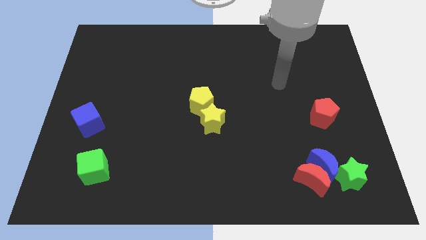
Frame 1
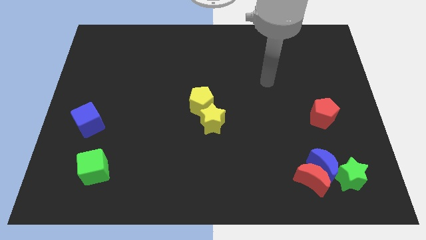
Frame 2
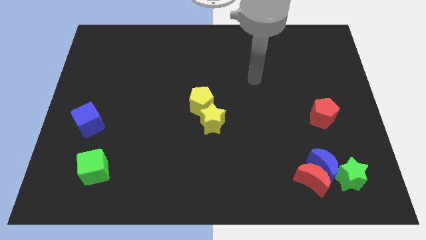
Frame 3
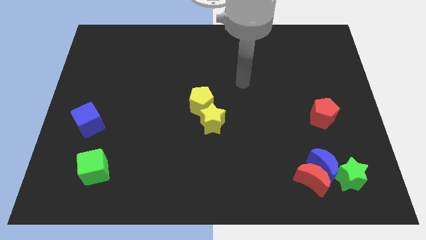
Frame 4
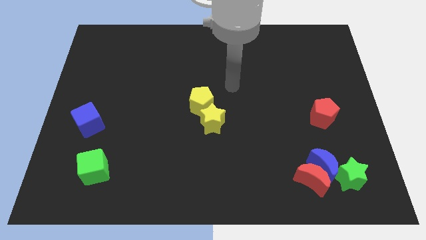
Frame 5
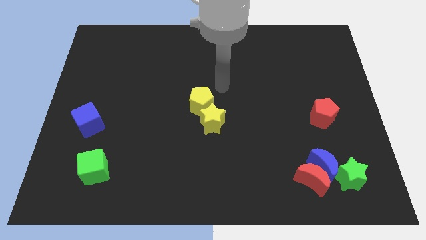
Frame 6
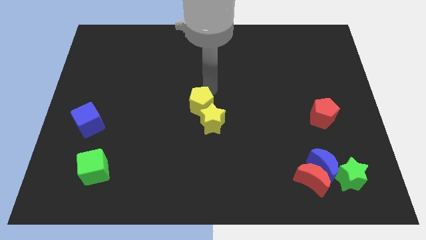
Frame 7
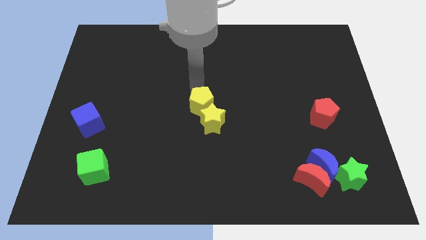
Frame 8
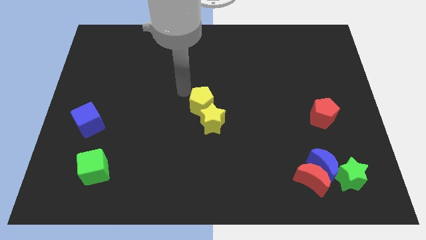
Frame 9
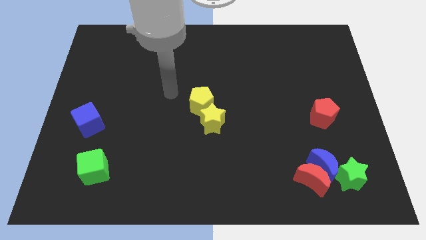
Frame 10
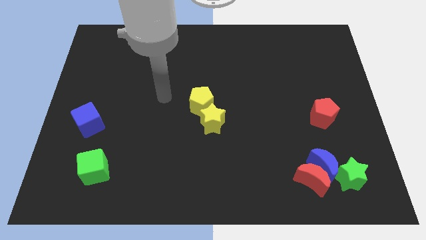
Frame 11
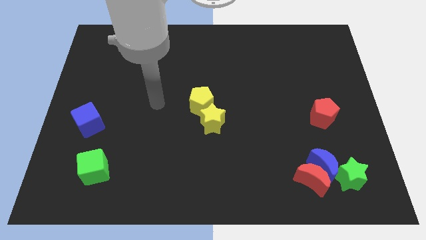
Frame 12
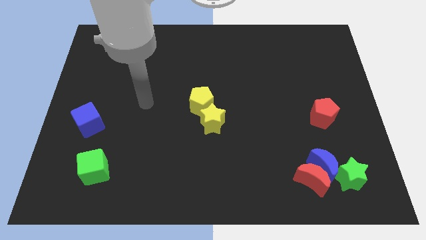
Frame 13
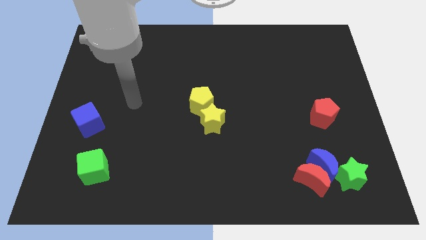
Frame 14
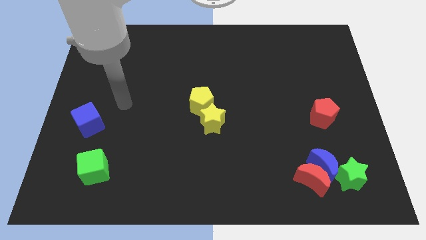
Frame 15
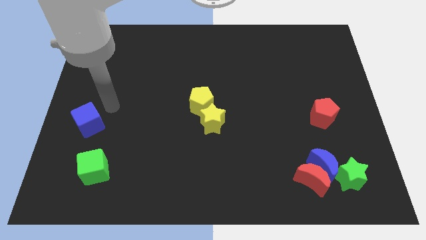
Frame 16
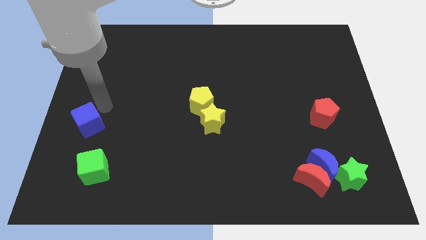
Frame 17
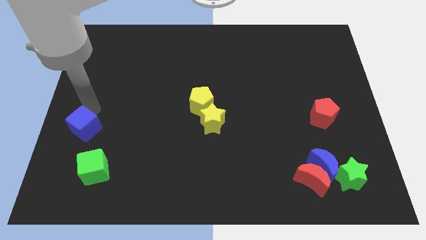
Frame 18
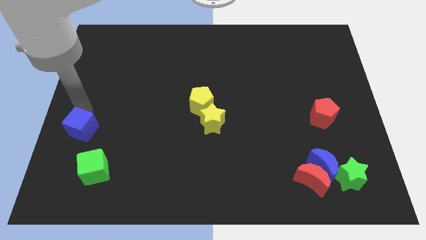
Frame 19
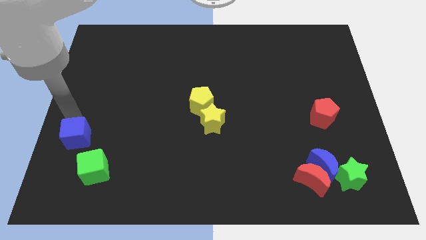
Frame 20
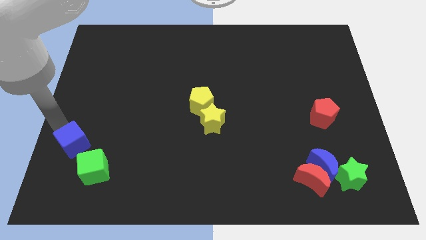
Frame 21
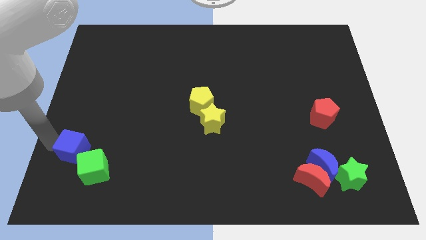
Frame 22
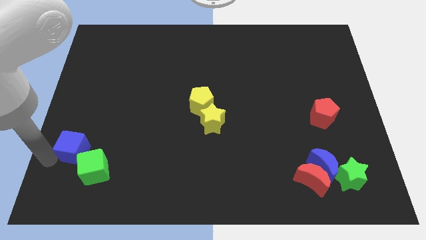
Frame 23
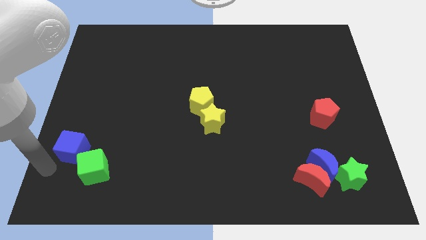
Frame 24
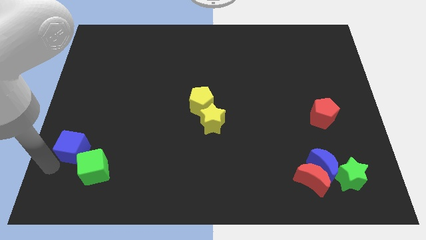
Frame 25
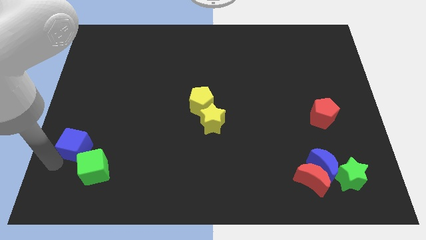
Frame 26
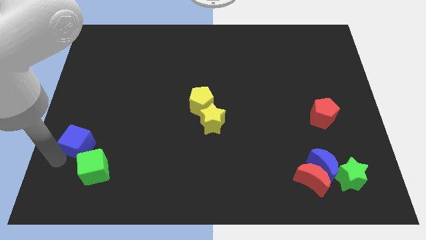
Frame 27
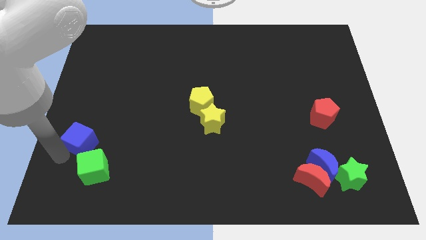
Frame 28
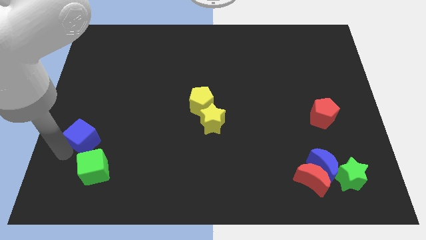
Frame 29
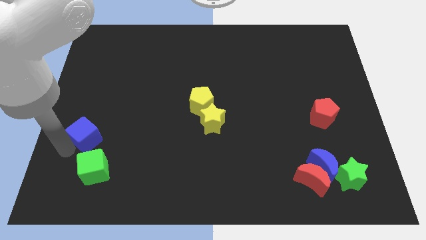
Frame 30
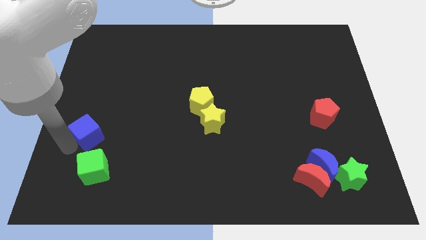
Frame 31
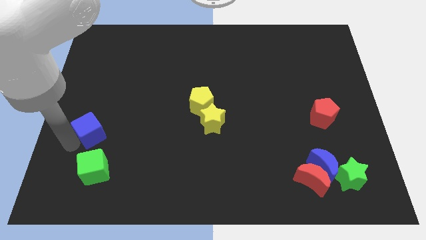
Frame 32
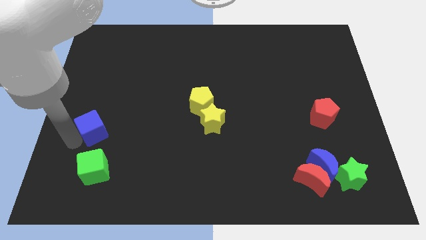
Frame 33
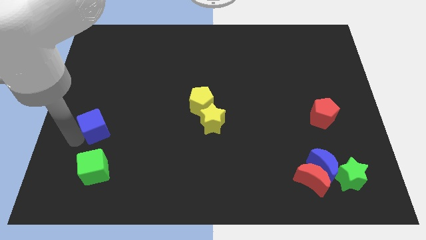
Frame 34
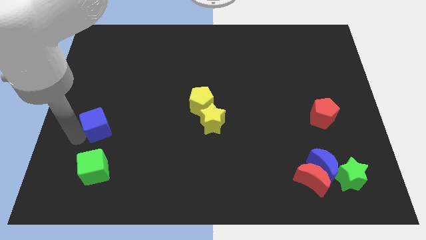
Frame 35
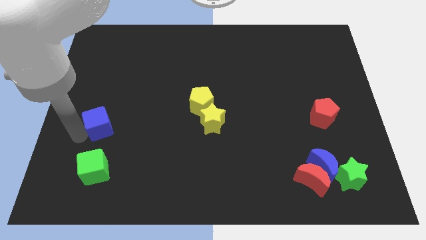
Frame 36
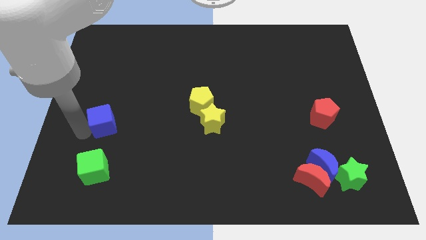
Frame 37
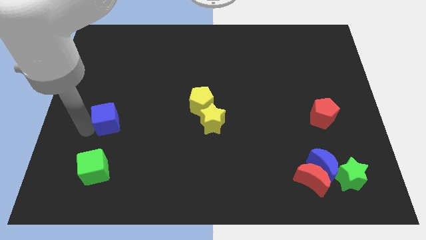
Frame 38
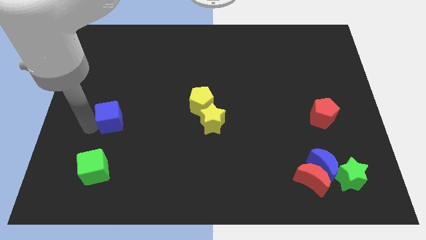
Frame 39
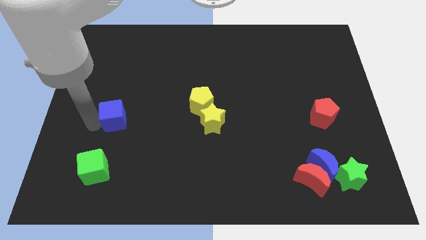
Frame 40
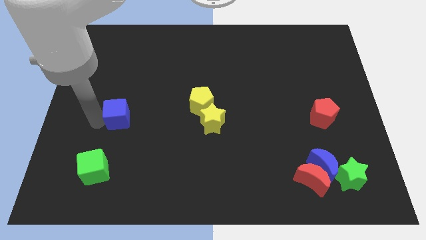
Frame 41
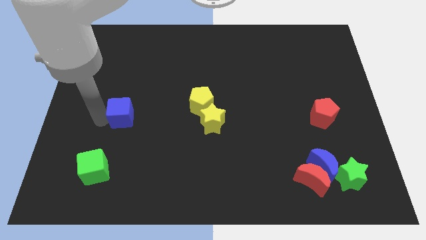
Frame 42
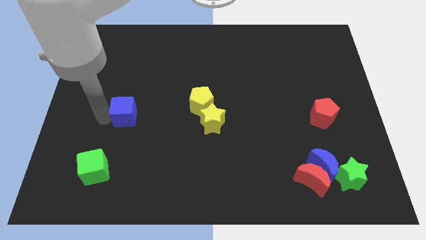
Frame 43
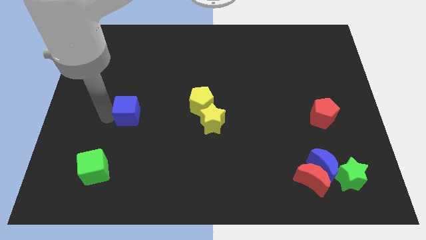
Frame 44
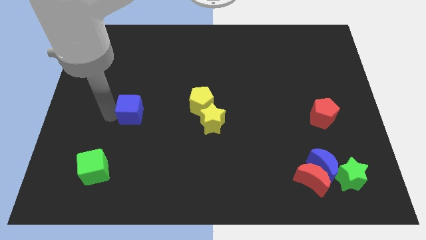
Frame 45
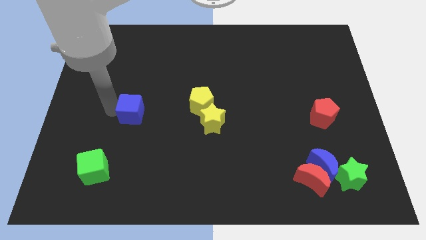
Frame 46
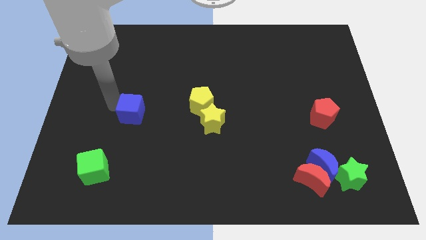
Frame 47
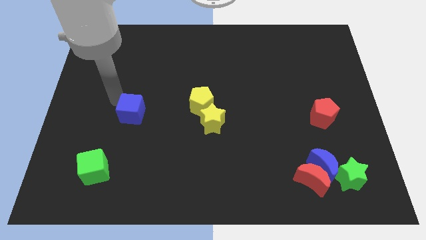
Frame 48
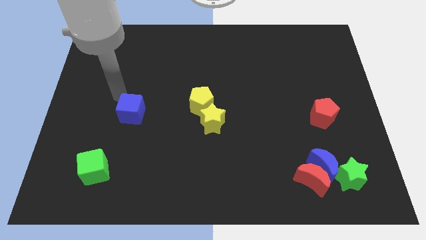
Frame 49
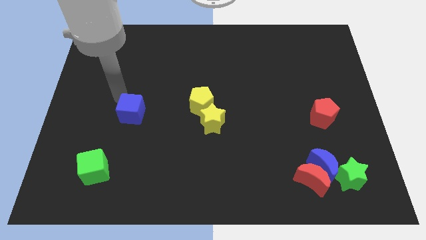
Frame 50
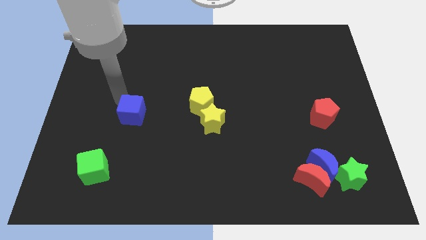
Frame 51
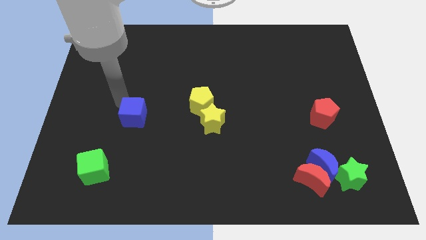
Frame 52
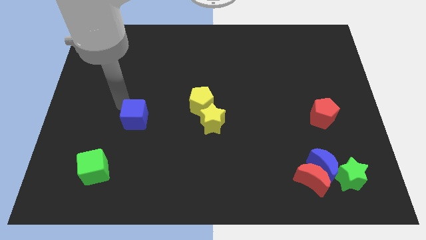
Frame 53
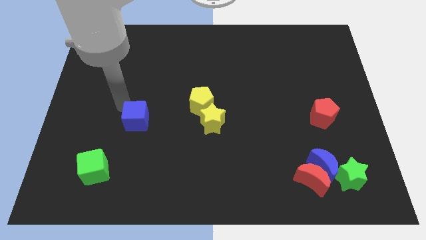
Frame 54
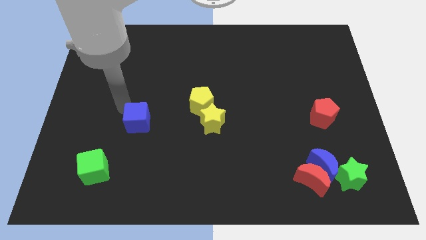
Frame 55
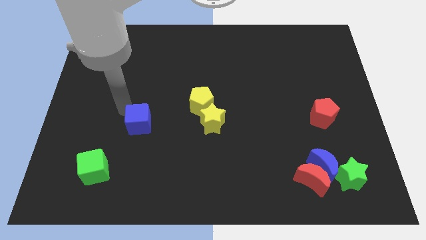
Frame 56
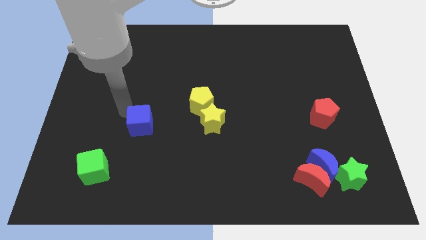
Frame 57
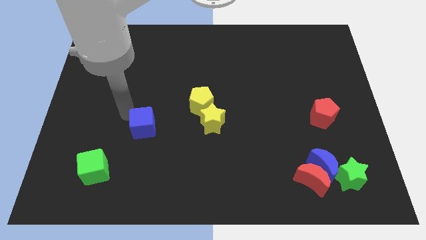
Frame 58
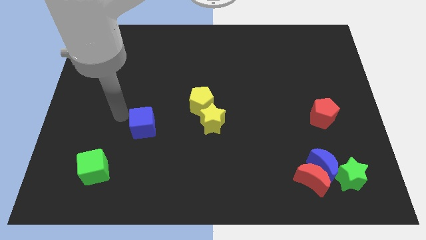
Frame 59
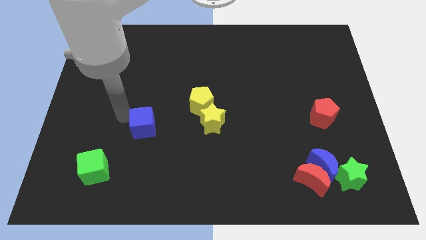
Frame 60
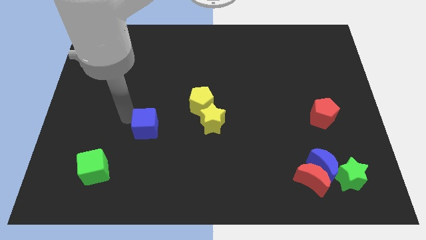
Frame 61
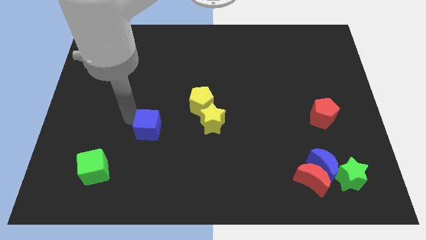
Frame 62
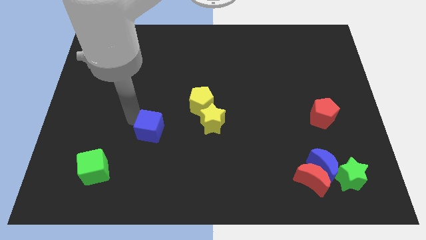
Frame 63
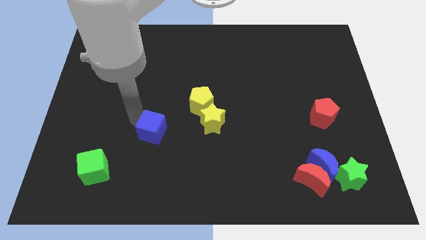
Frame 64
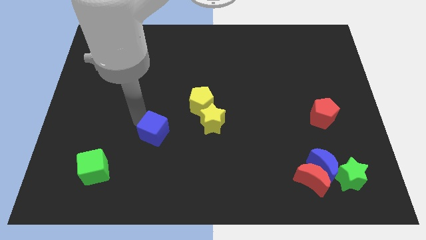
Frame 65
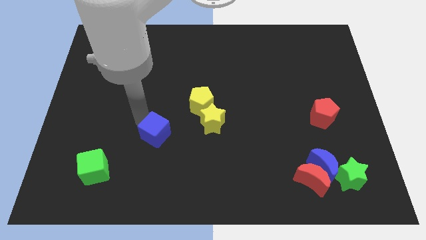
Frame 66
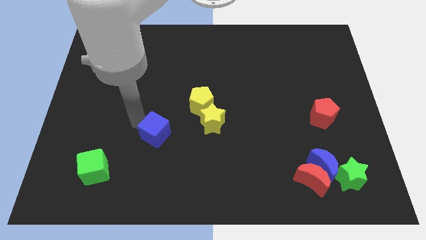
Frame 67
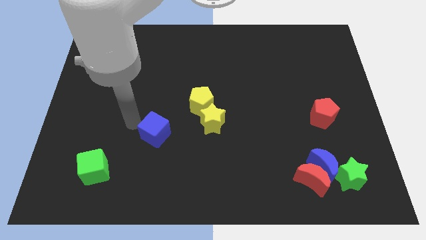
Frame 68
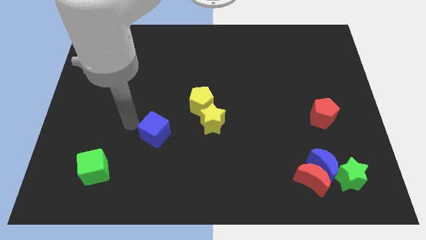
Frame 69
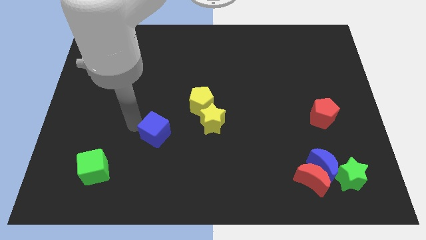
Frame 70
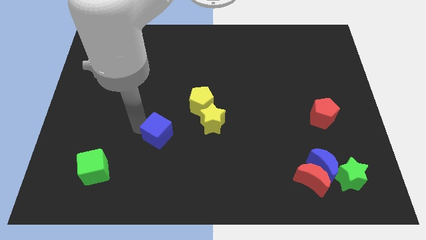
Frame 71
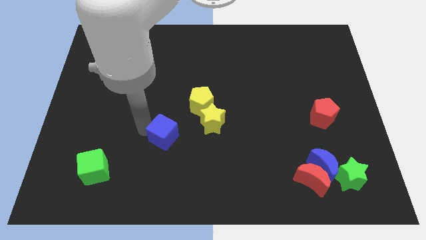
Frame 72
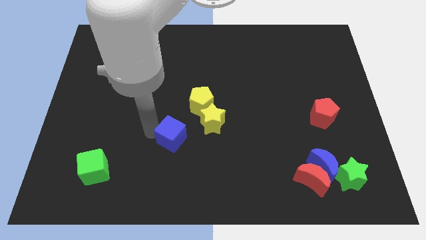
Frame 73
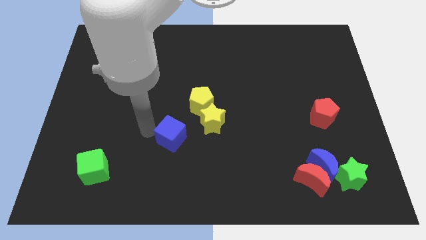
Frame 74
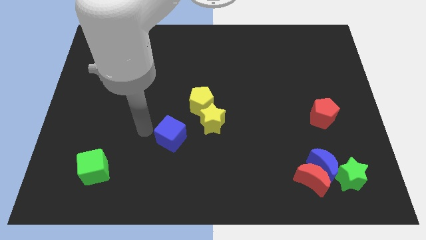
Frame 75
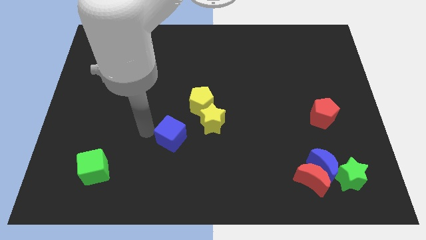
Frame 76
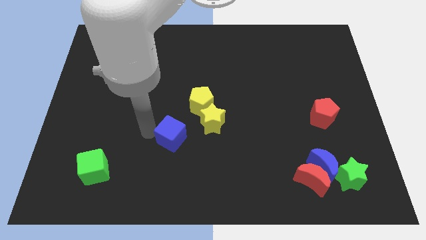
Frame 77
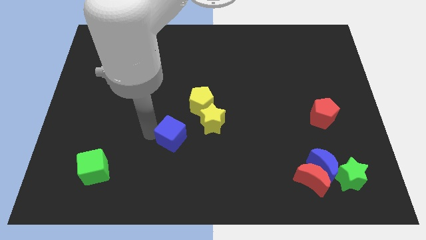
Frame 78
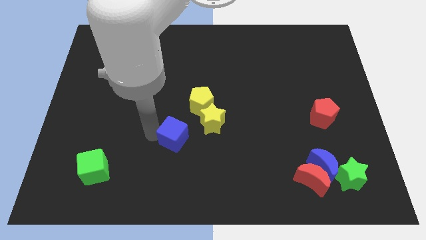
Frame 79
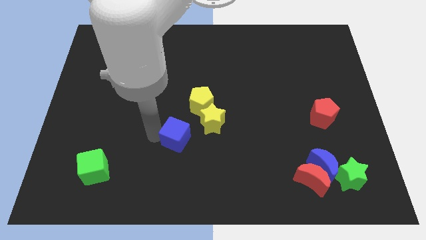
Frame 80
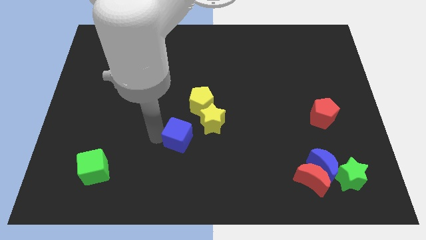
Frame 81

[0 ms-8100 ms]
push the blue cube right

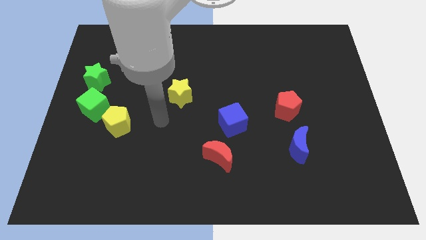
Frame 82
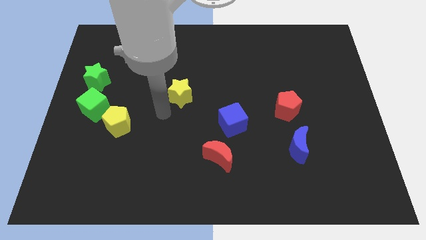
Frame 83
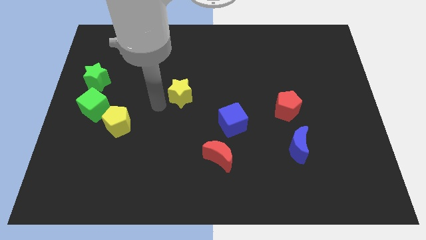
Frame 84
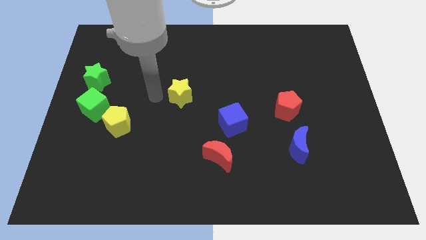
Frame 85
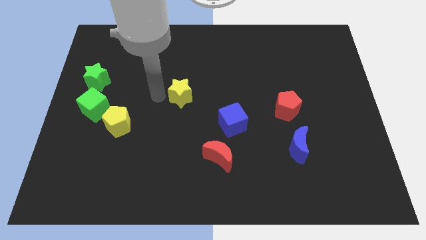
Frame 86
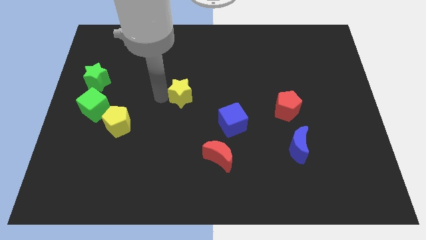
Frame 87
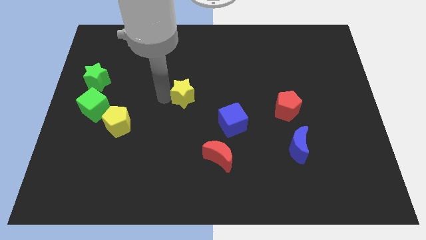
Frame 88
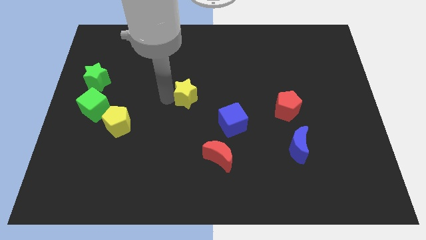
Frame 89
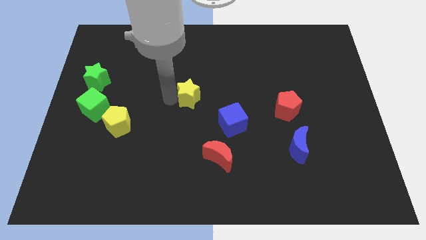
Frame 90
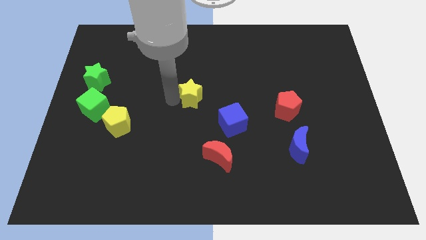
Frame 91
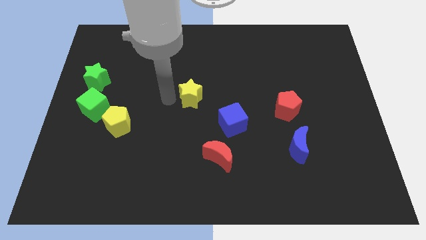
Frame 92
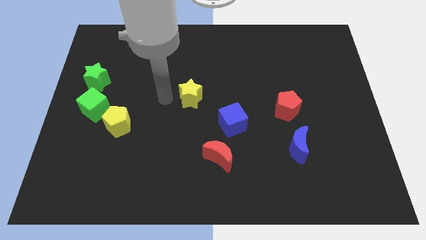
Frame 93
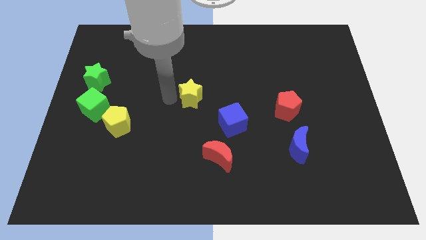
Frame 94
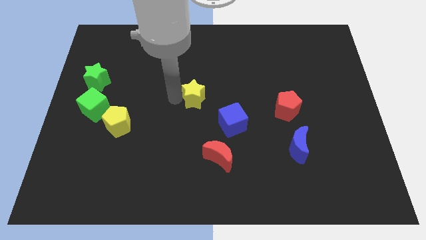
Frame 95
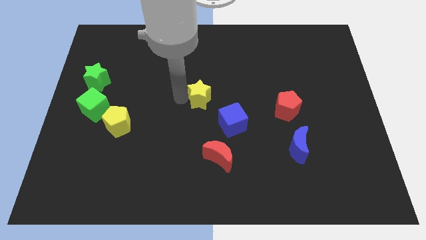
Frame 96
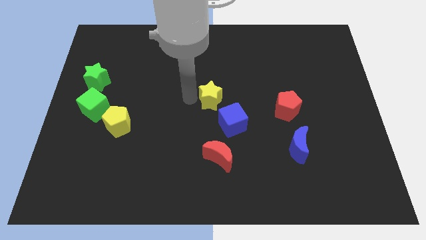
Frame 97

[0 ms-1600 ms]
push the yellow star a bit right
